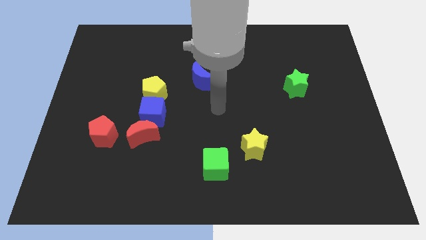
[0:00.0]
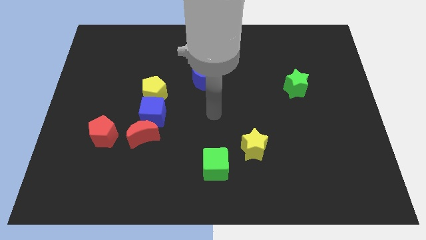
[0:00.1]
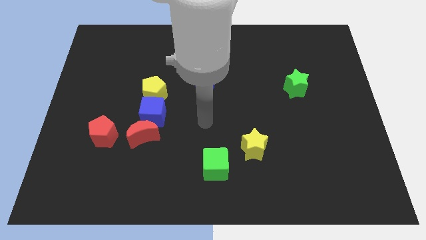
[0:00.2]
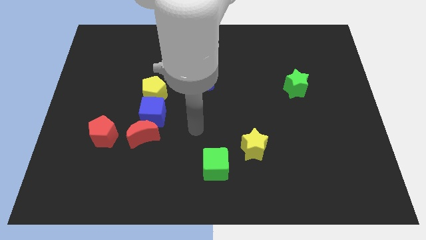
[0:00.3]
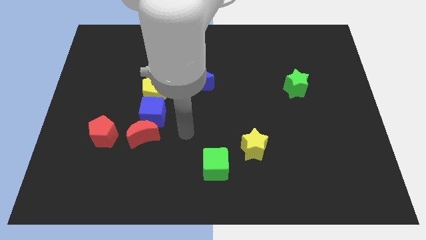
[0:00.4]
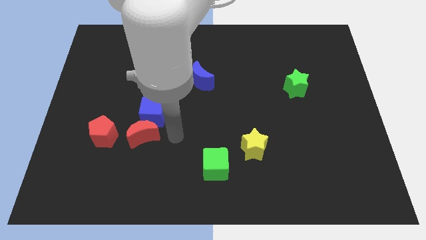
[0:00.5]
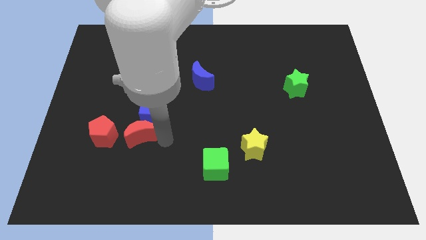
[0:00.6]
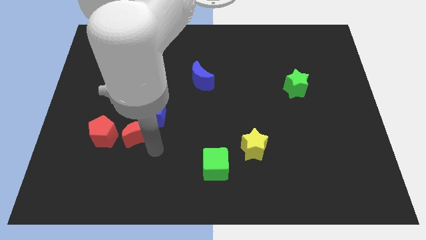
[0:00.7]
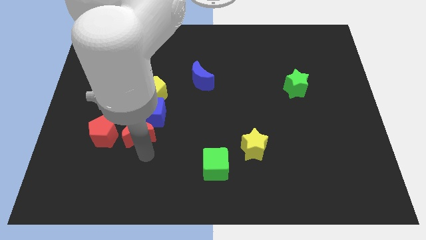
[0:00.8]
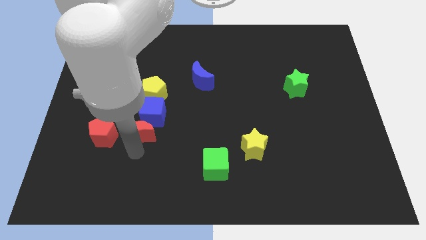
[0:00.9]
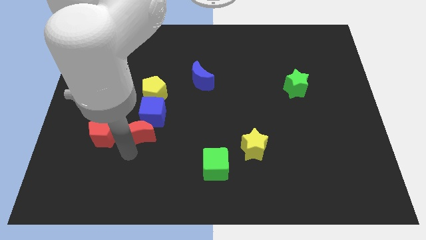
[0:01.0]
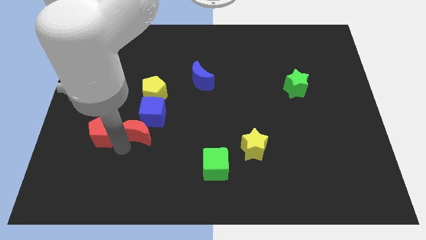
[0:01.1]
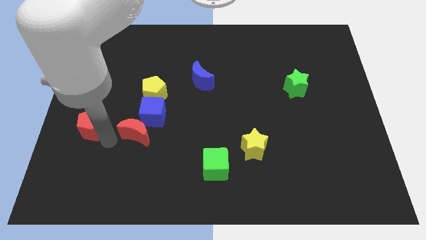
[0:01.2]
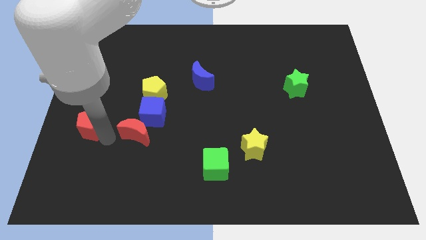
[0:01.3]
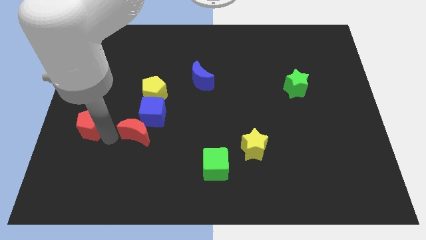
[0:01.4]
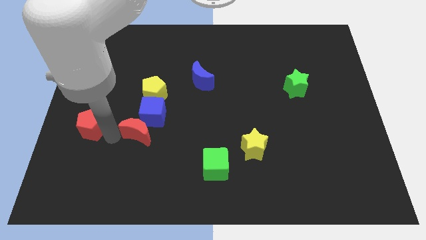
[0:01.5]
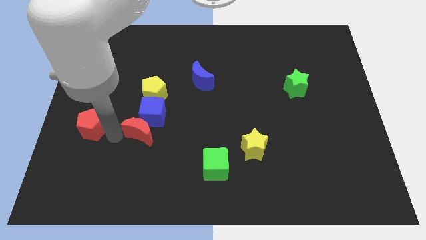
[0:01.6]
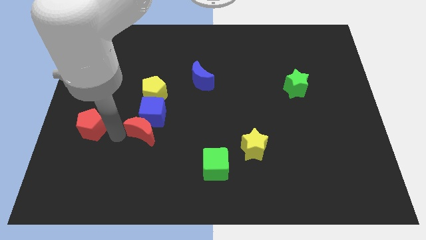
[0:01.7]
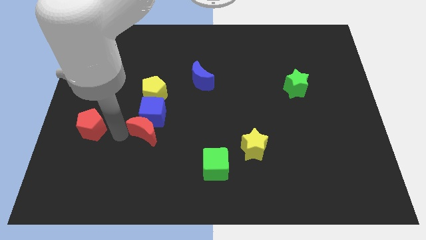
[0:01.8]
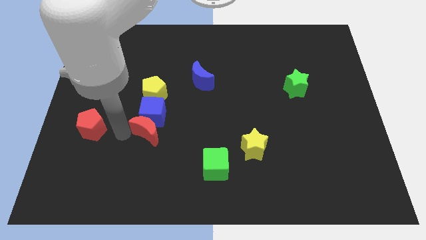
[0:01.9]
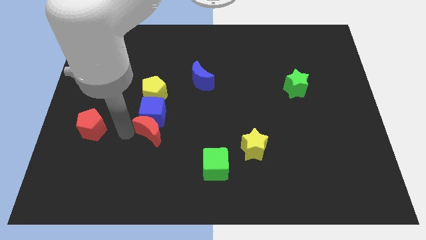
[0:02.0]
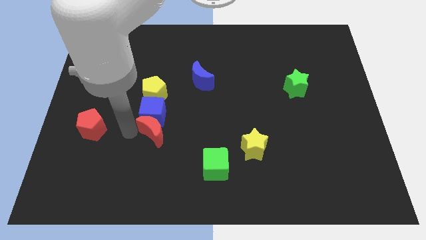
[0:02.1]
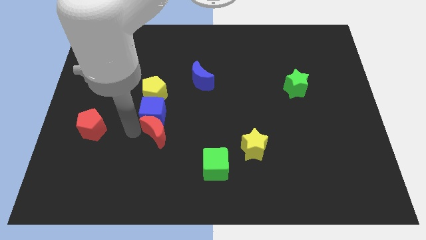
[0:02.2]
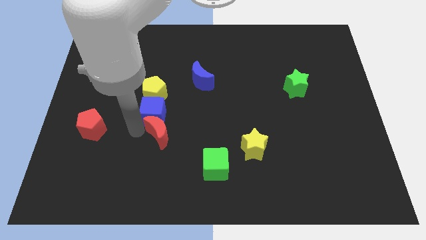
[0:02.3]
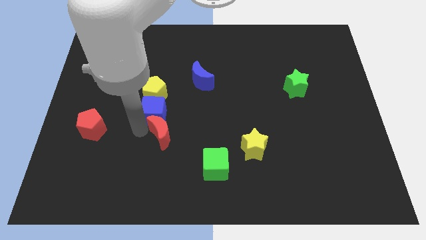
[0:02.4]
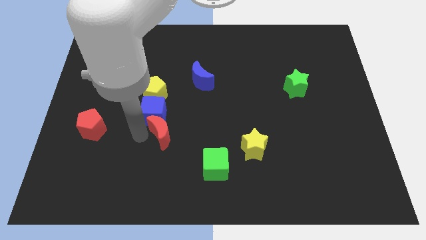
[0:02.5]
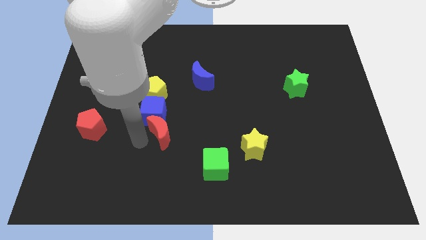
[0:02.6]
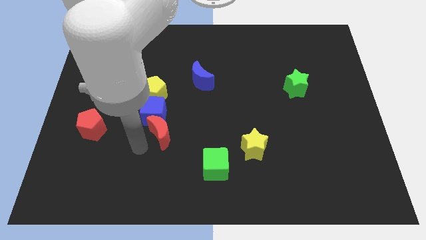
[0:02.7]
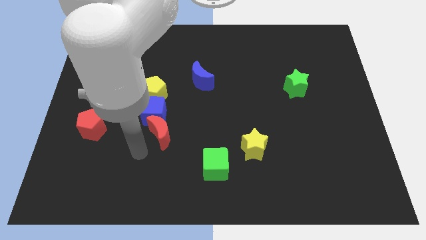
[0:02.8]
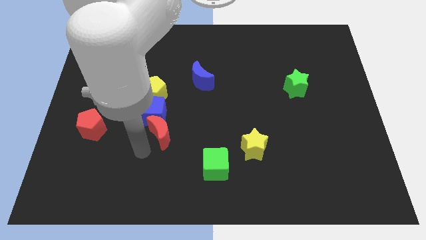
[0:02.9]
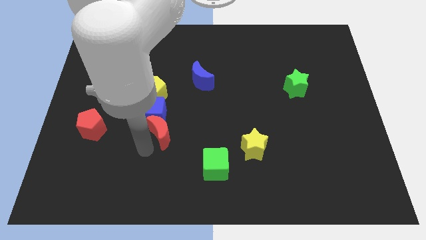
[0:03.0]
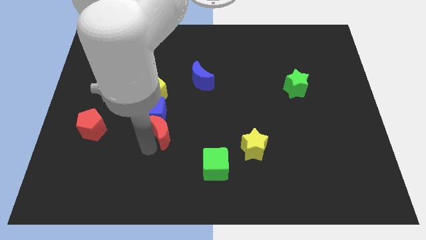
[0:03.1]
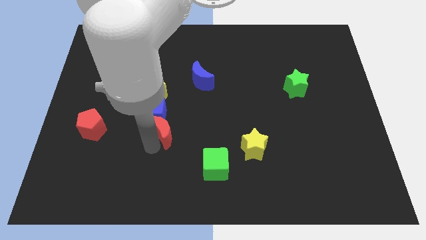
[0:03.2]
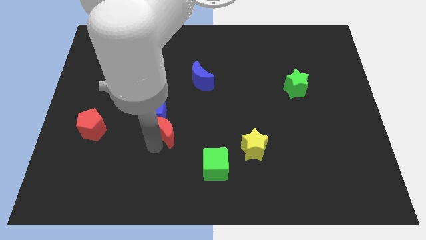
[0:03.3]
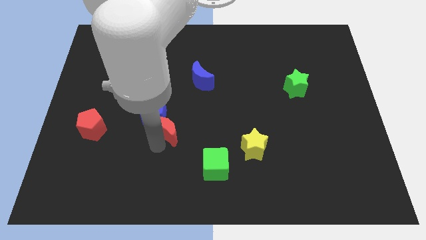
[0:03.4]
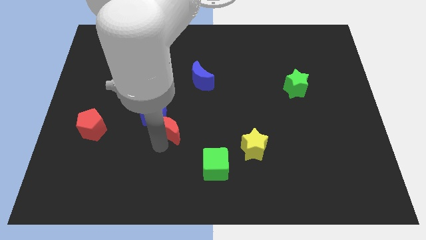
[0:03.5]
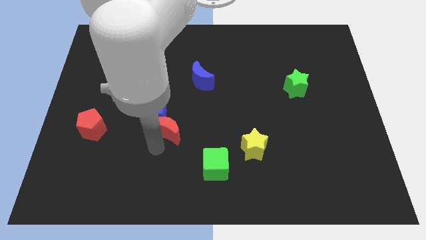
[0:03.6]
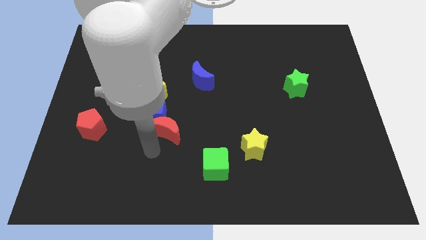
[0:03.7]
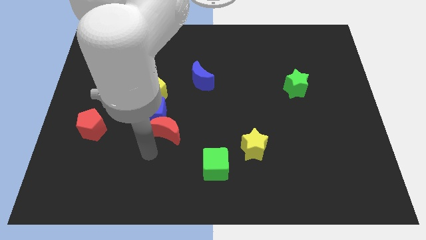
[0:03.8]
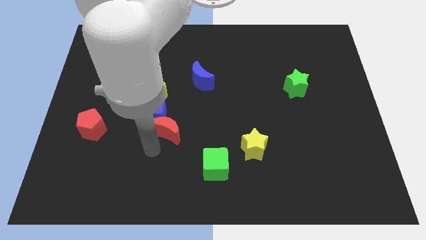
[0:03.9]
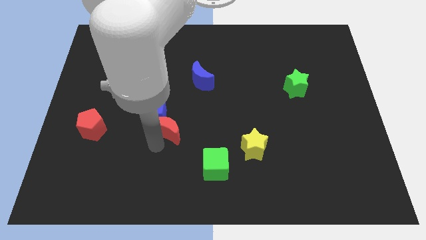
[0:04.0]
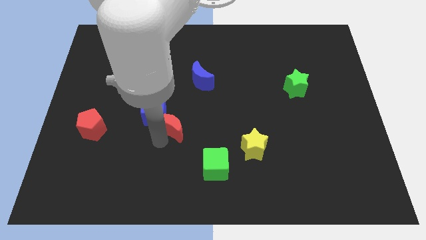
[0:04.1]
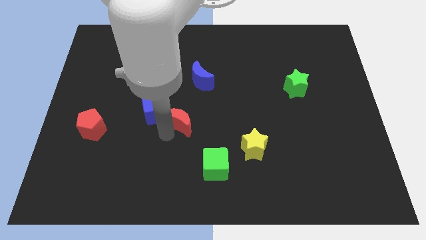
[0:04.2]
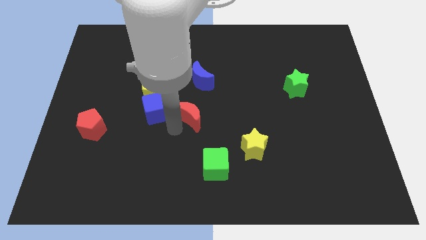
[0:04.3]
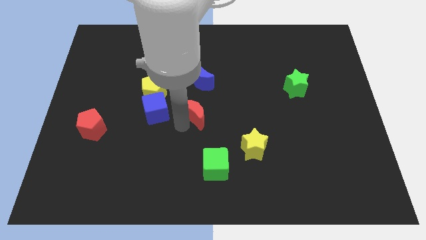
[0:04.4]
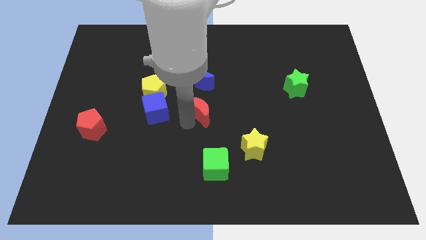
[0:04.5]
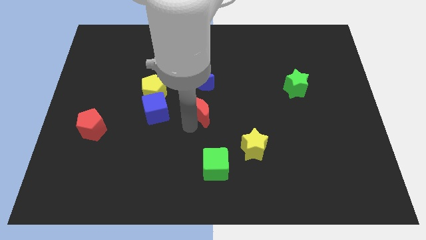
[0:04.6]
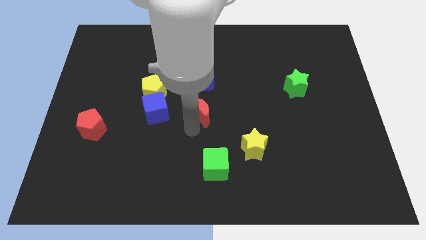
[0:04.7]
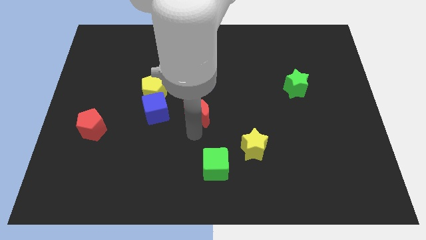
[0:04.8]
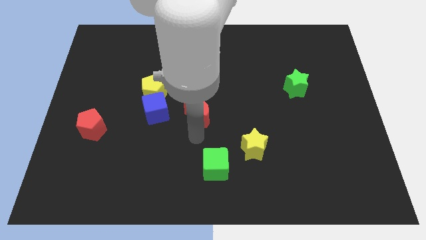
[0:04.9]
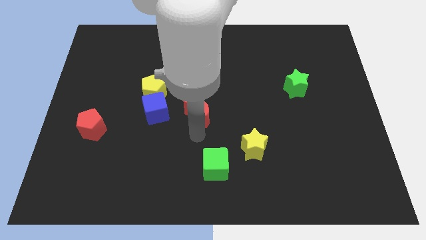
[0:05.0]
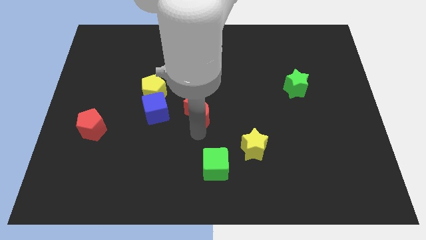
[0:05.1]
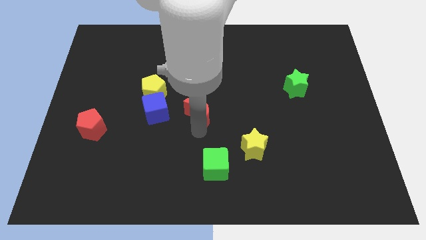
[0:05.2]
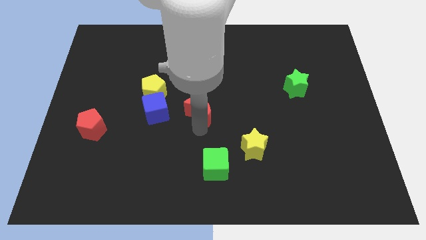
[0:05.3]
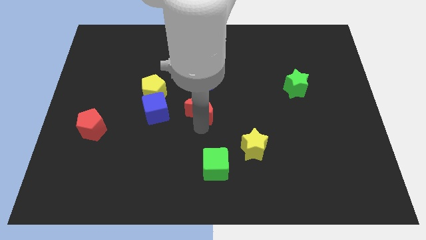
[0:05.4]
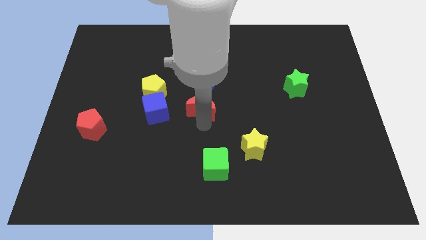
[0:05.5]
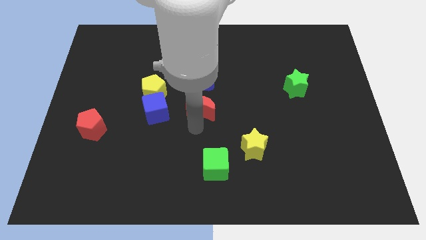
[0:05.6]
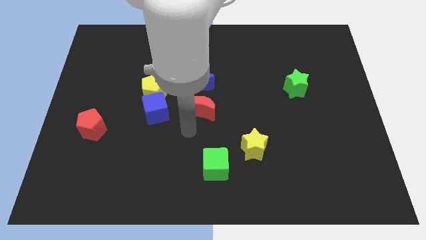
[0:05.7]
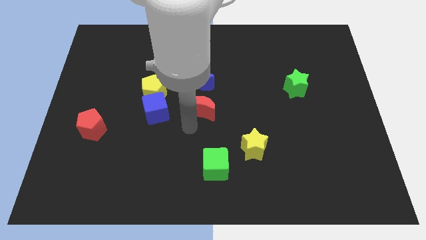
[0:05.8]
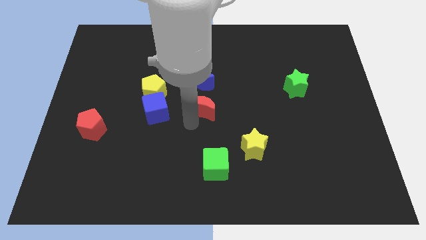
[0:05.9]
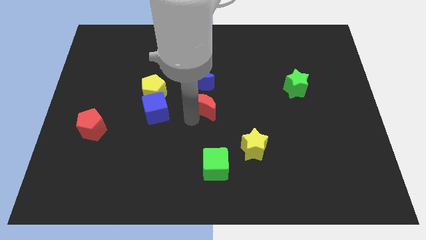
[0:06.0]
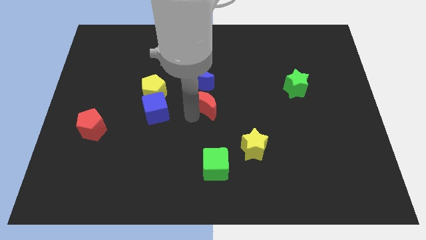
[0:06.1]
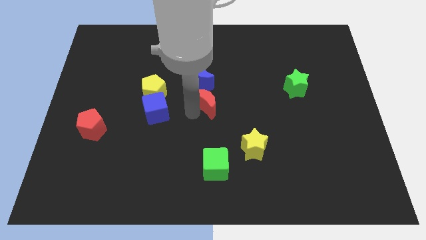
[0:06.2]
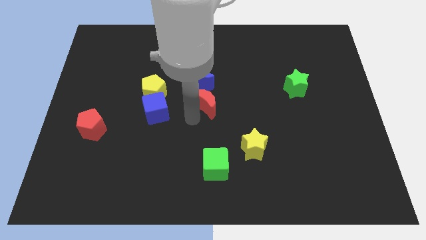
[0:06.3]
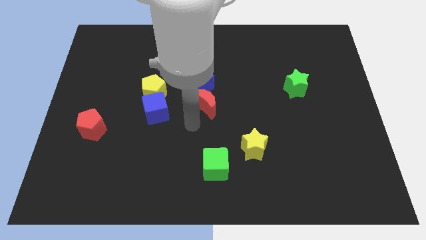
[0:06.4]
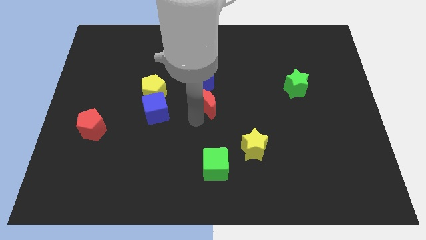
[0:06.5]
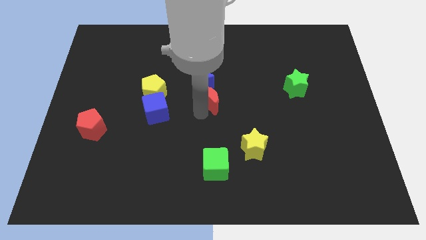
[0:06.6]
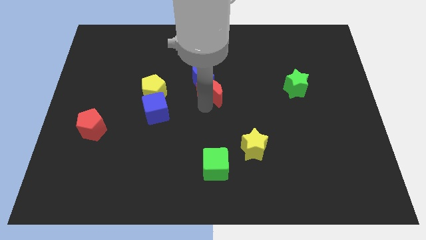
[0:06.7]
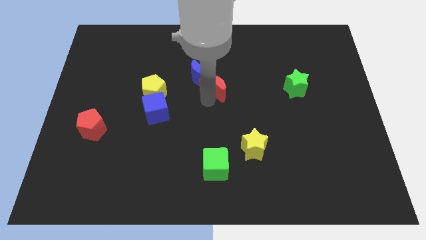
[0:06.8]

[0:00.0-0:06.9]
push the red moon up and right

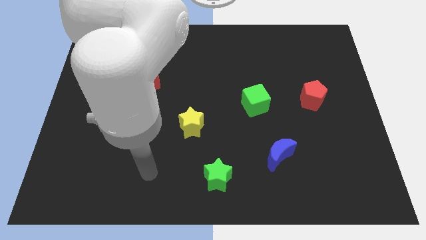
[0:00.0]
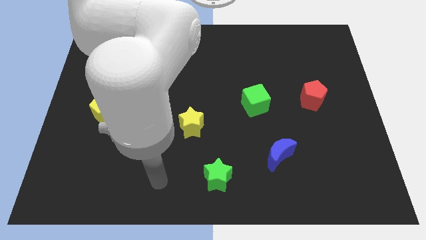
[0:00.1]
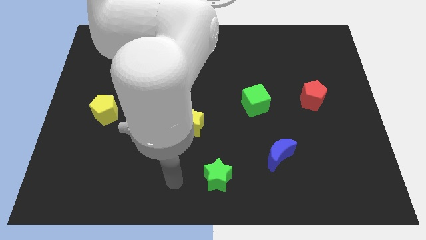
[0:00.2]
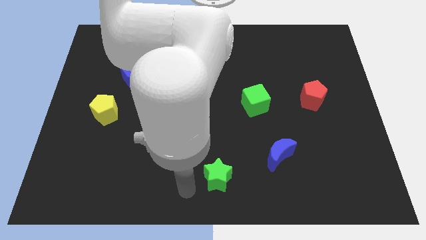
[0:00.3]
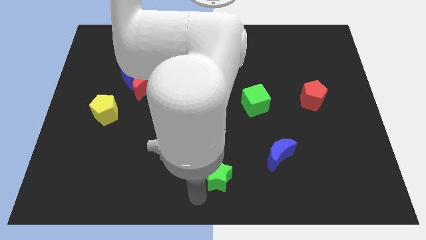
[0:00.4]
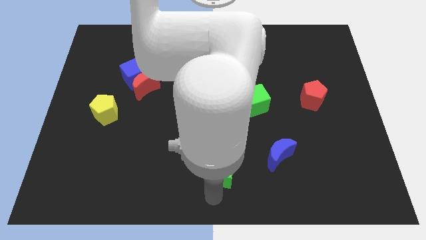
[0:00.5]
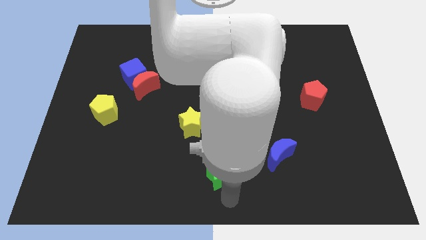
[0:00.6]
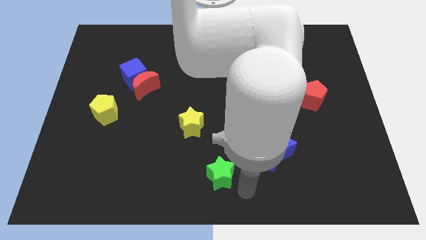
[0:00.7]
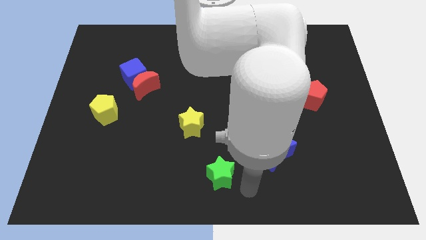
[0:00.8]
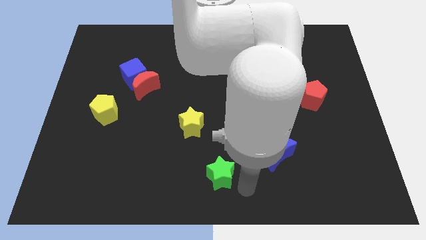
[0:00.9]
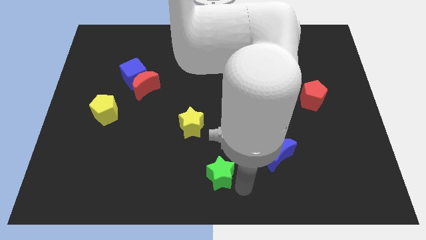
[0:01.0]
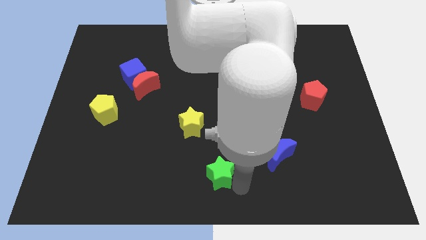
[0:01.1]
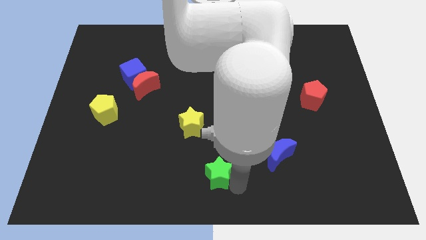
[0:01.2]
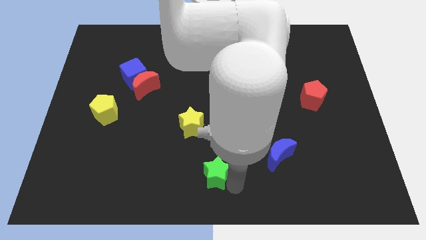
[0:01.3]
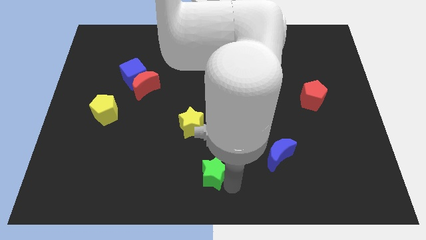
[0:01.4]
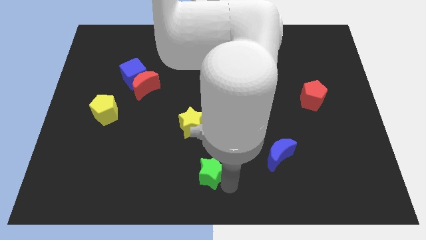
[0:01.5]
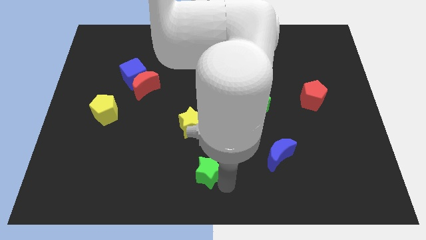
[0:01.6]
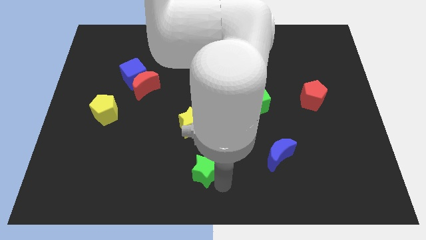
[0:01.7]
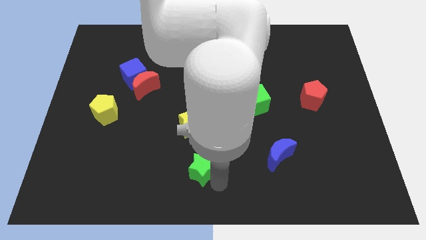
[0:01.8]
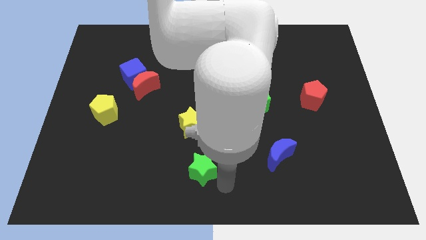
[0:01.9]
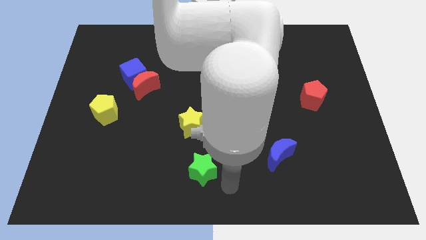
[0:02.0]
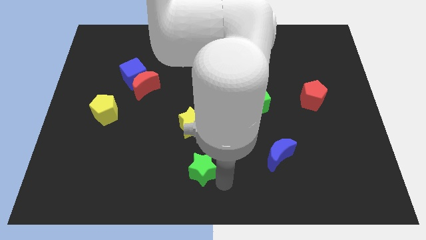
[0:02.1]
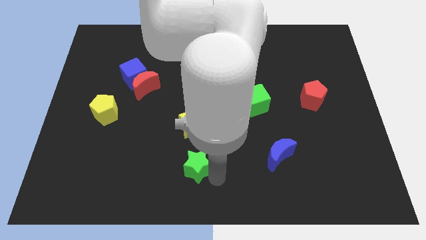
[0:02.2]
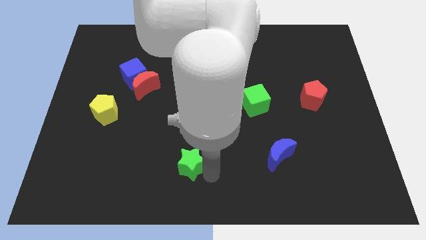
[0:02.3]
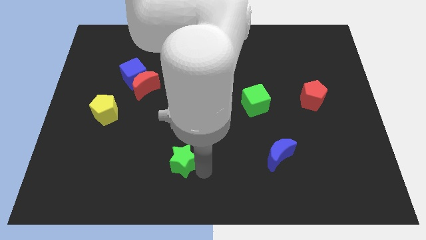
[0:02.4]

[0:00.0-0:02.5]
move the green star a bit upwards and to the left diagonally
